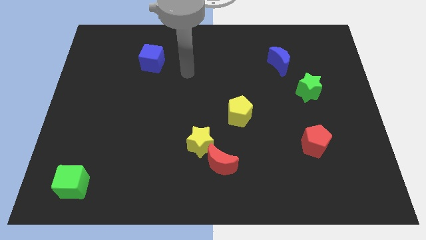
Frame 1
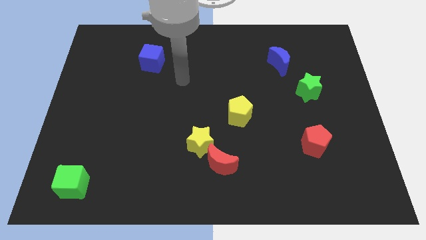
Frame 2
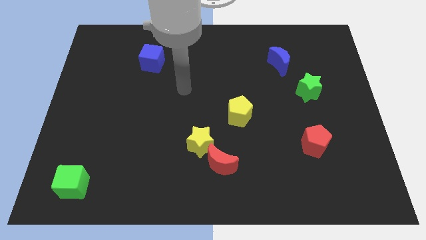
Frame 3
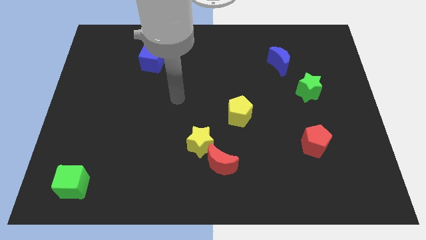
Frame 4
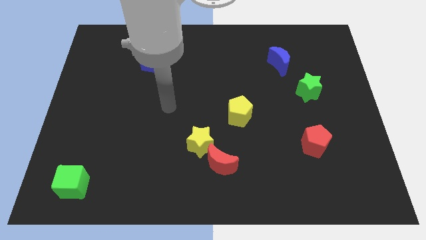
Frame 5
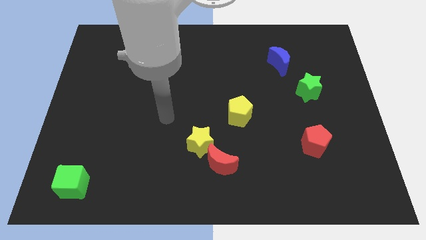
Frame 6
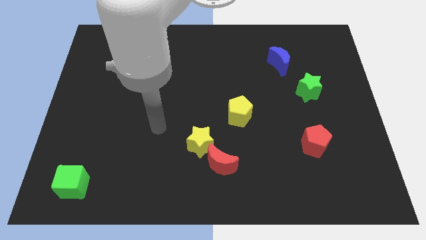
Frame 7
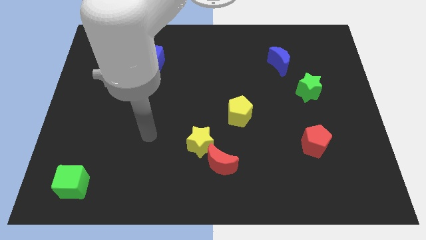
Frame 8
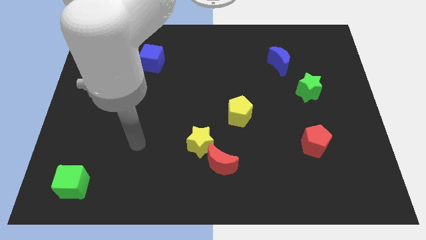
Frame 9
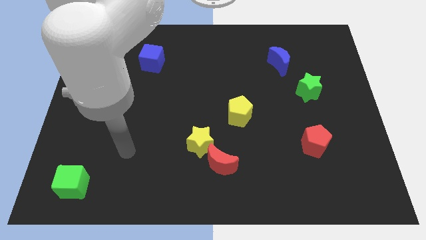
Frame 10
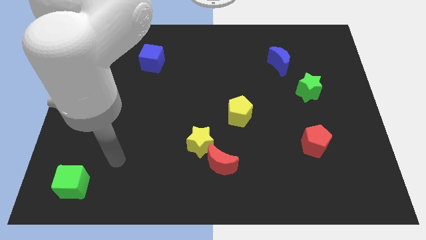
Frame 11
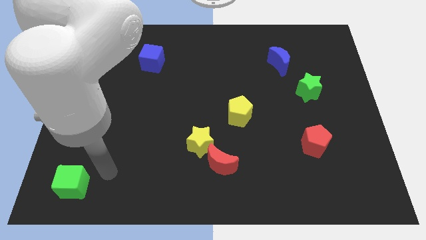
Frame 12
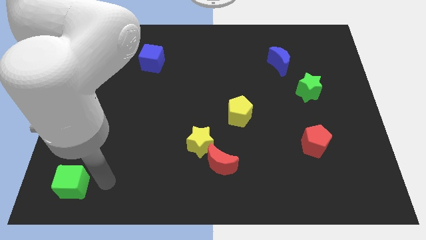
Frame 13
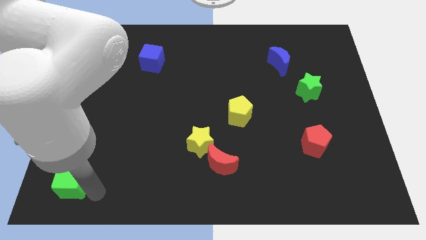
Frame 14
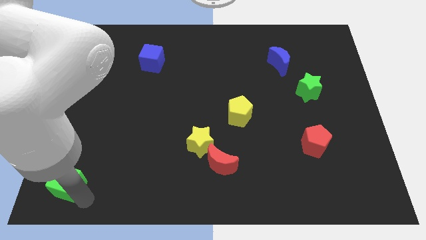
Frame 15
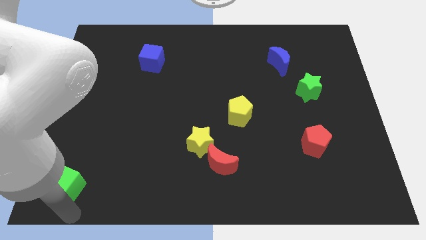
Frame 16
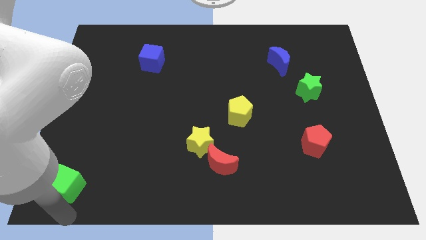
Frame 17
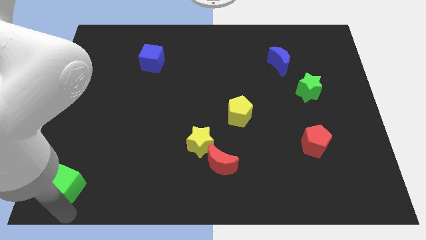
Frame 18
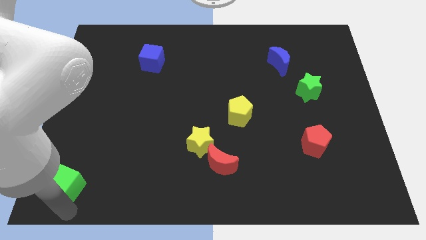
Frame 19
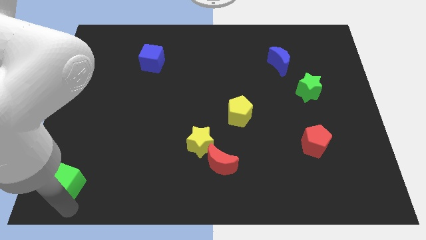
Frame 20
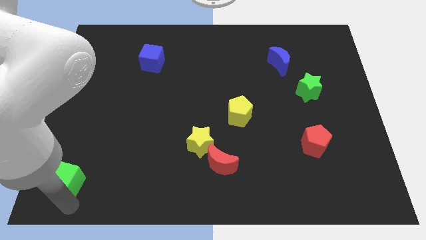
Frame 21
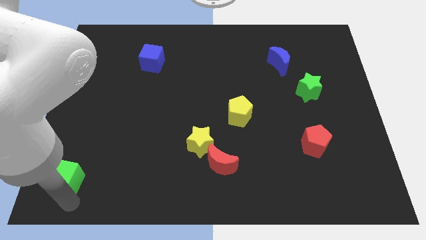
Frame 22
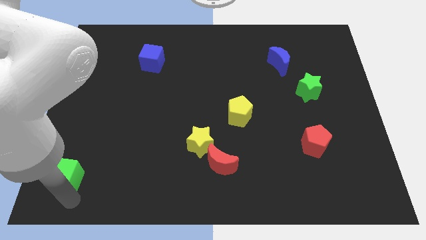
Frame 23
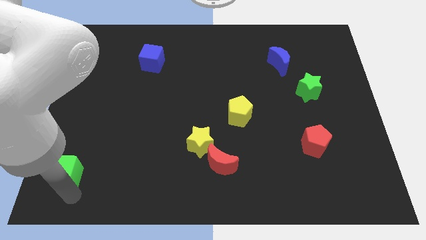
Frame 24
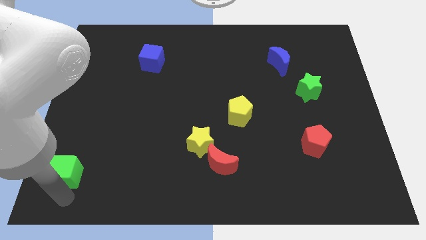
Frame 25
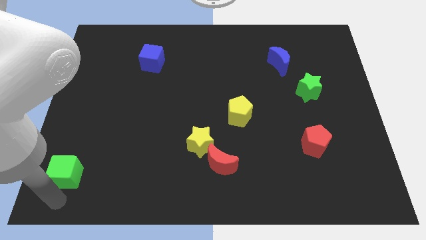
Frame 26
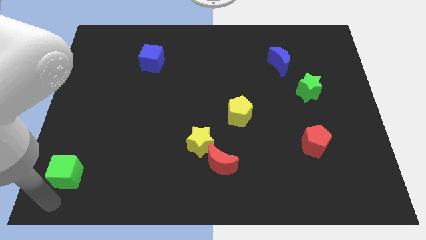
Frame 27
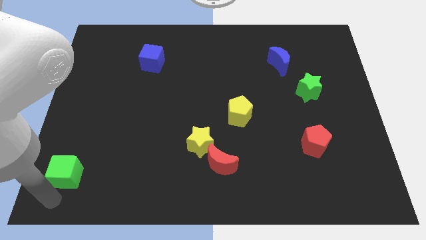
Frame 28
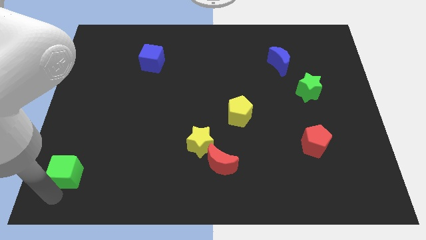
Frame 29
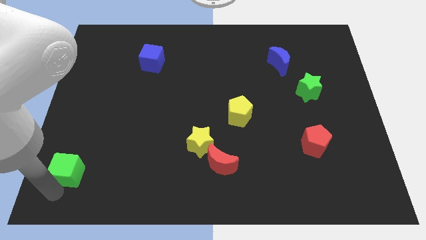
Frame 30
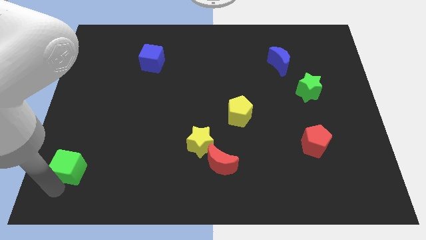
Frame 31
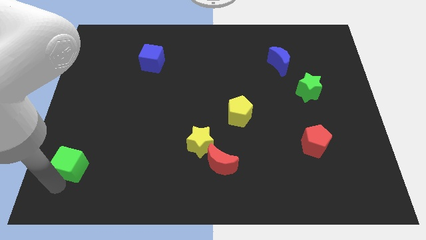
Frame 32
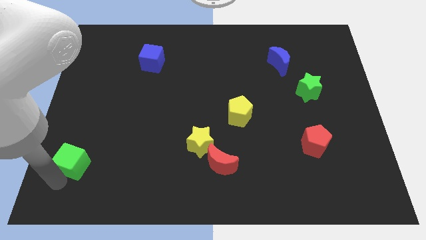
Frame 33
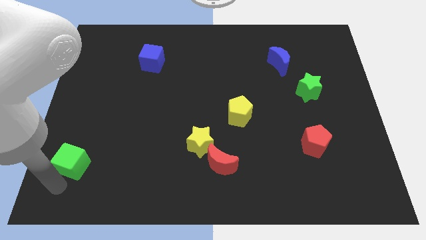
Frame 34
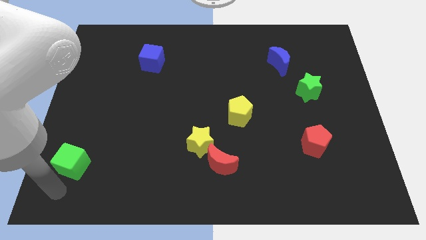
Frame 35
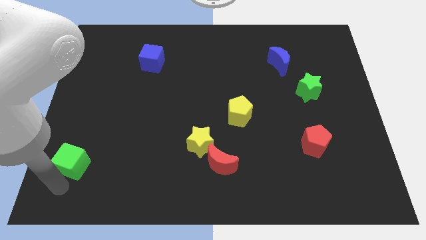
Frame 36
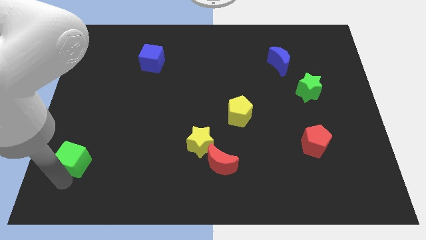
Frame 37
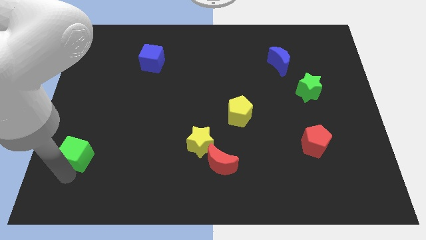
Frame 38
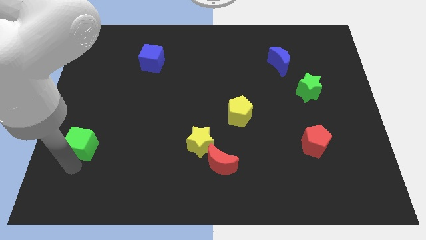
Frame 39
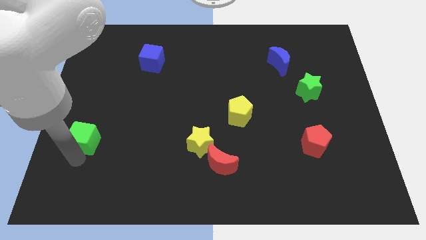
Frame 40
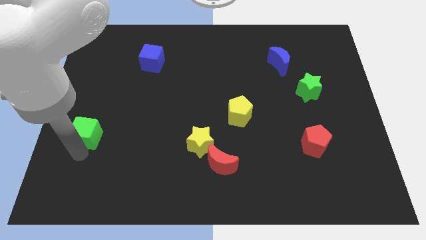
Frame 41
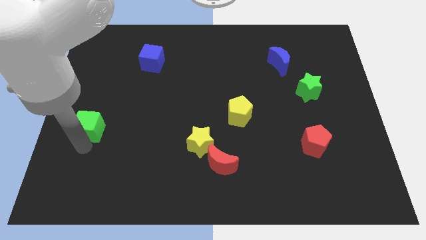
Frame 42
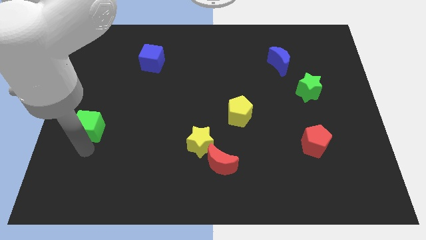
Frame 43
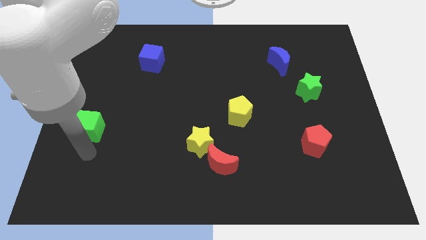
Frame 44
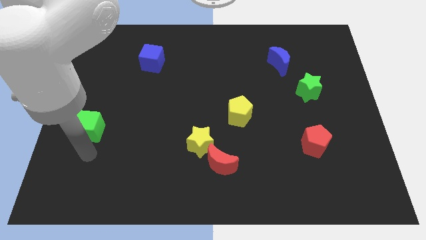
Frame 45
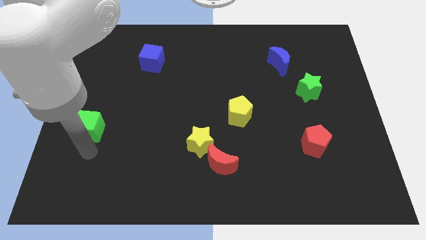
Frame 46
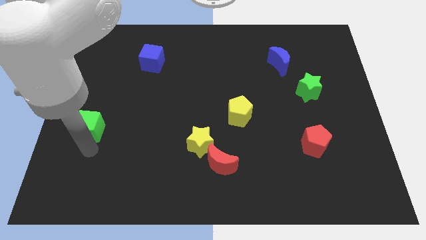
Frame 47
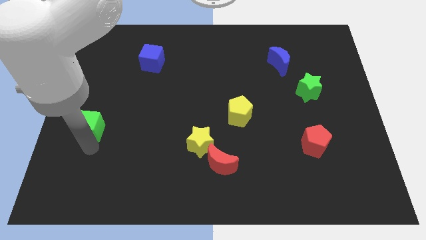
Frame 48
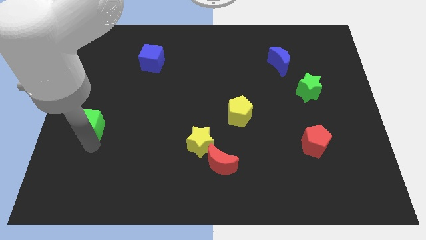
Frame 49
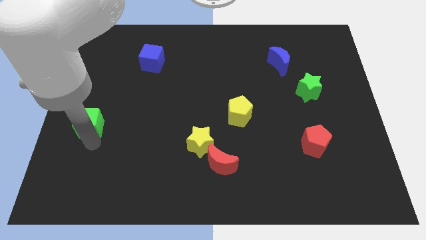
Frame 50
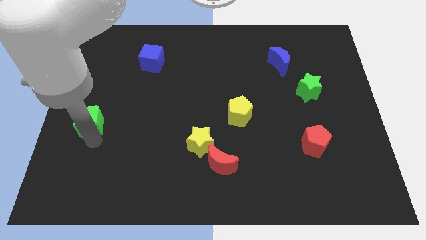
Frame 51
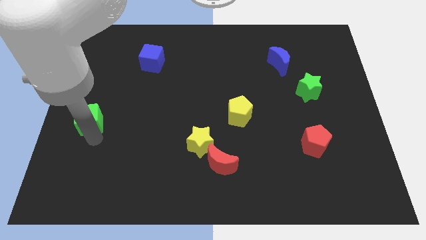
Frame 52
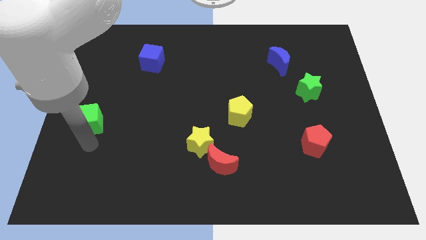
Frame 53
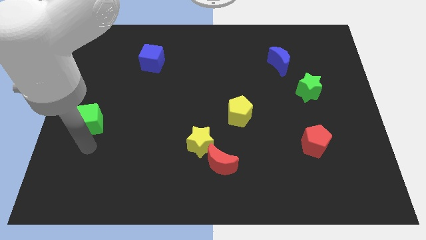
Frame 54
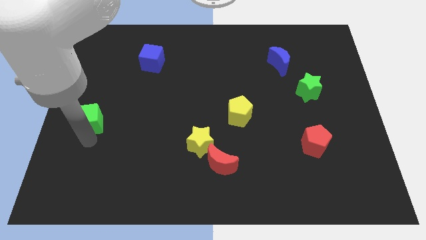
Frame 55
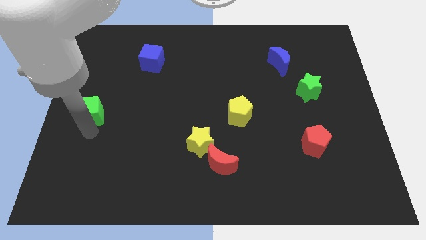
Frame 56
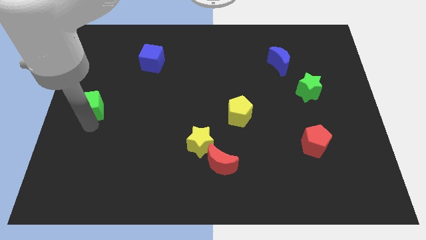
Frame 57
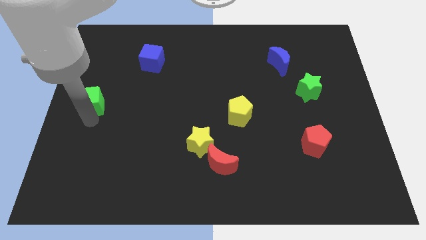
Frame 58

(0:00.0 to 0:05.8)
slide the green cube upwards

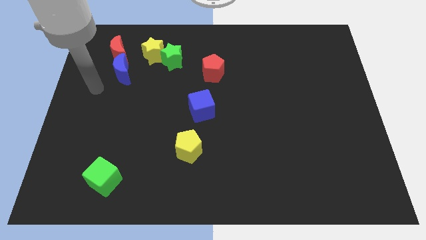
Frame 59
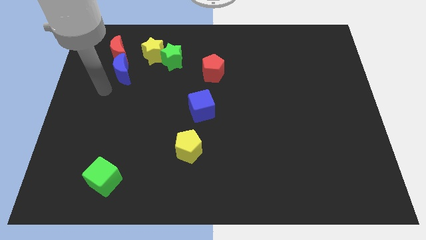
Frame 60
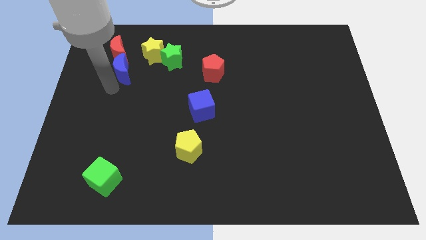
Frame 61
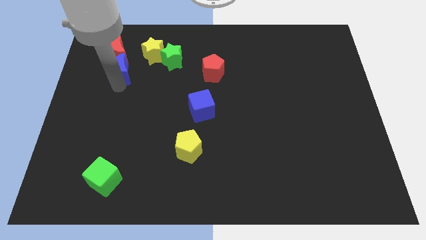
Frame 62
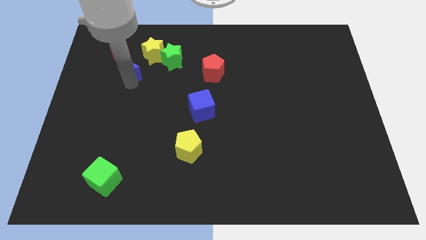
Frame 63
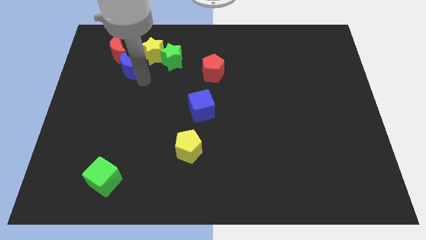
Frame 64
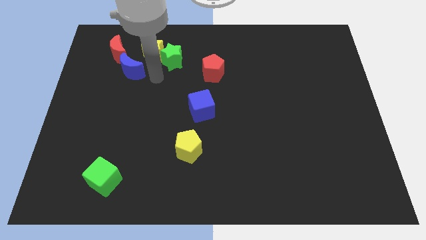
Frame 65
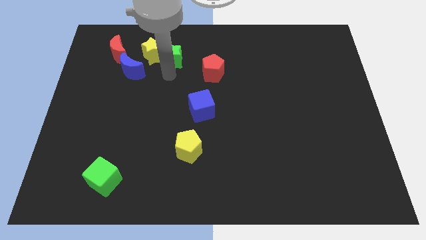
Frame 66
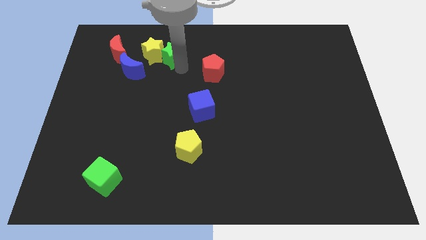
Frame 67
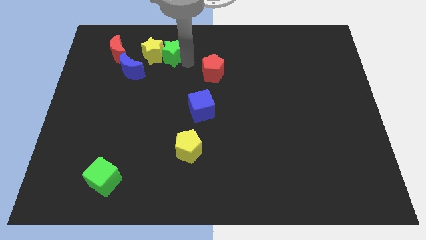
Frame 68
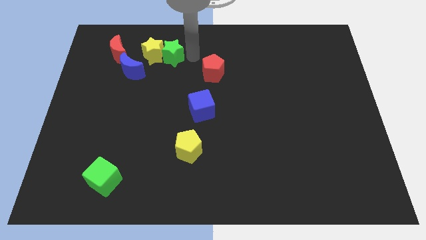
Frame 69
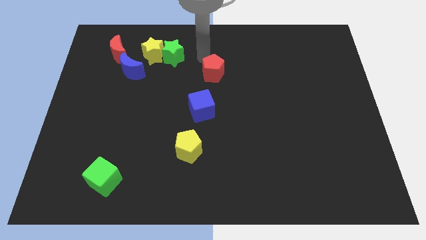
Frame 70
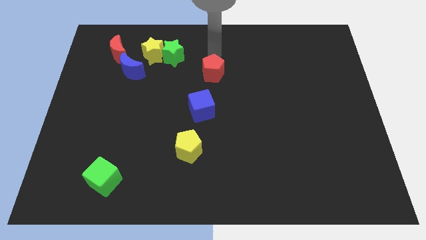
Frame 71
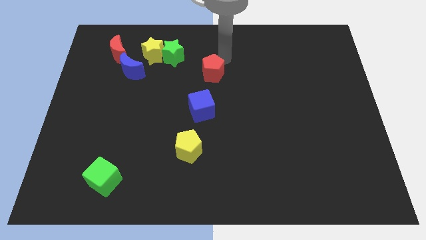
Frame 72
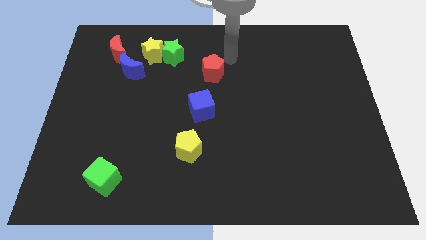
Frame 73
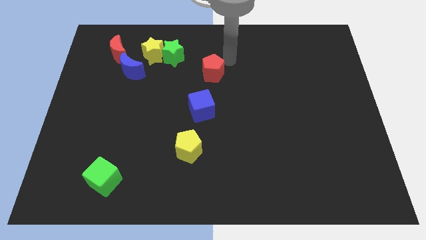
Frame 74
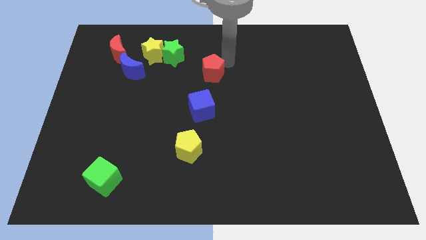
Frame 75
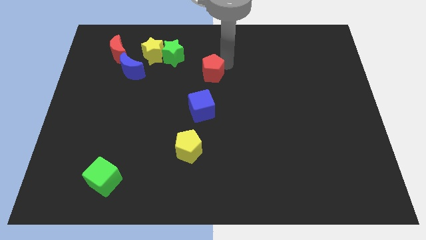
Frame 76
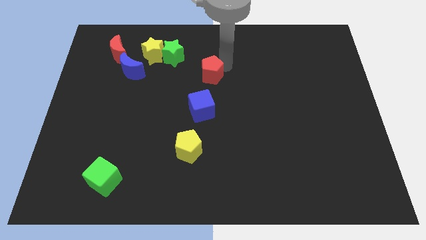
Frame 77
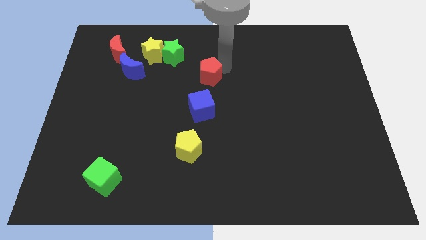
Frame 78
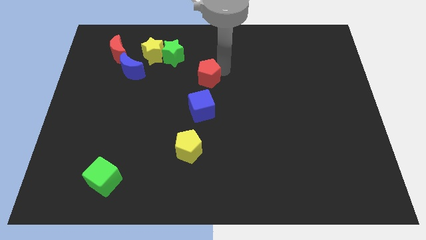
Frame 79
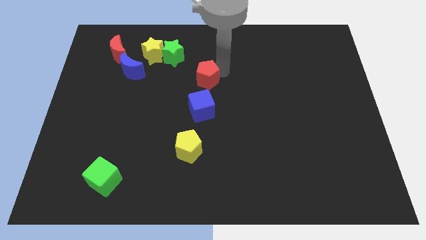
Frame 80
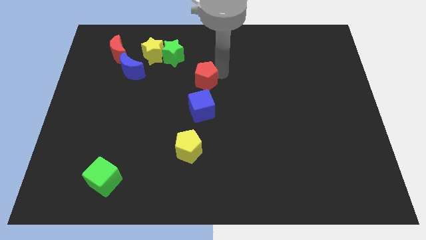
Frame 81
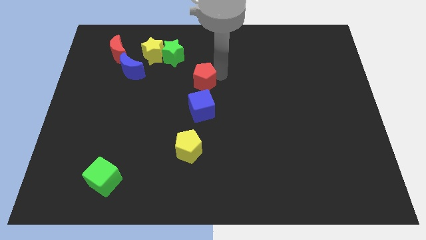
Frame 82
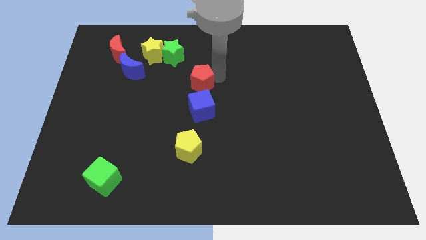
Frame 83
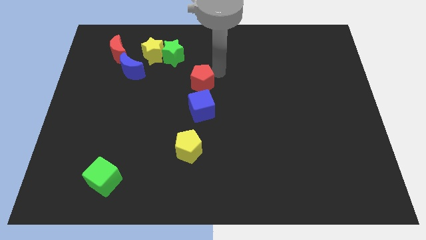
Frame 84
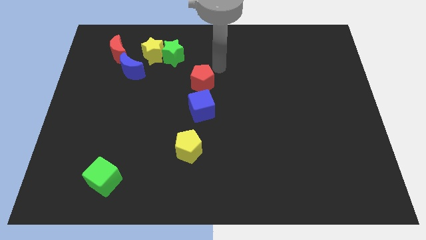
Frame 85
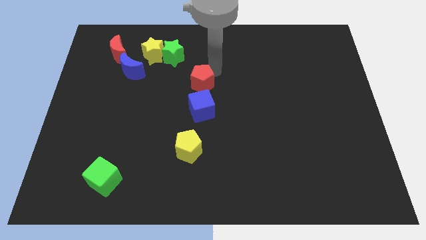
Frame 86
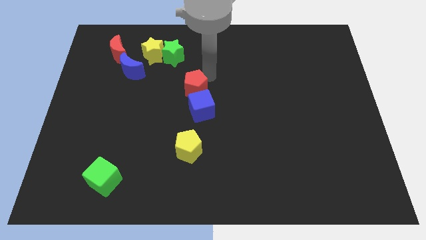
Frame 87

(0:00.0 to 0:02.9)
move the red pentagon downwards and then left a little bit
